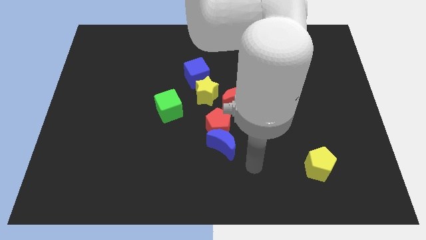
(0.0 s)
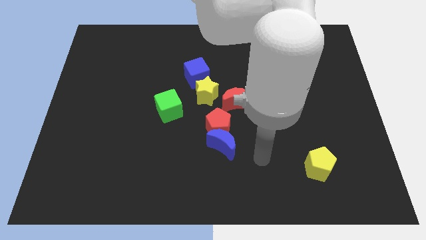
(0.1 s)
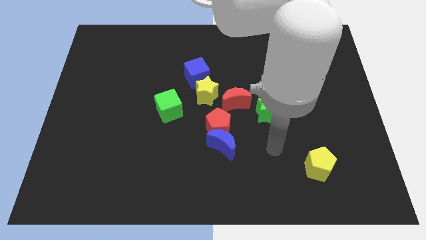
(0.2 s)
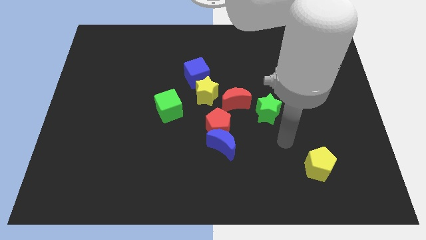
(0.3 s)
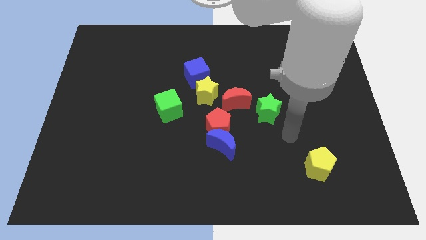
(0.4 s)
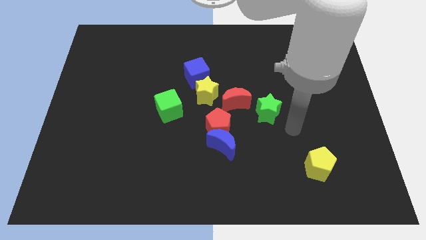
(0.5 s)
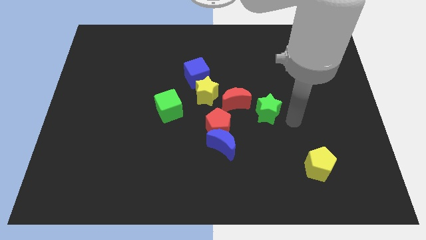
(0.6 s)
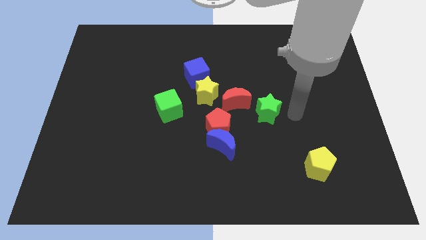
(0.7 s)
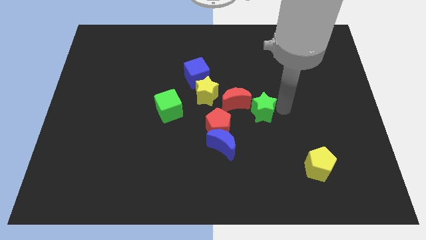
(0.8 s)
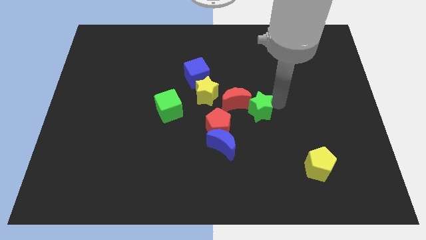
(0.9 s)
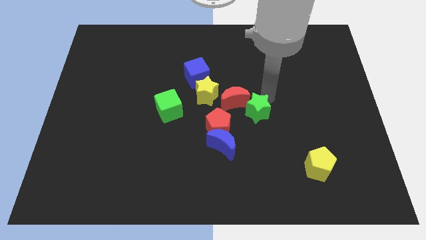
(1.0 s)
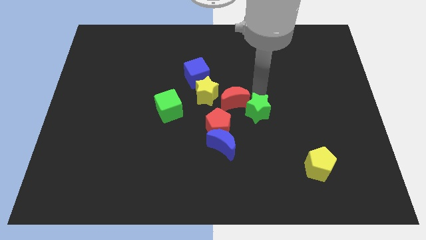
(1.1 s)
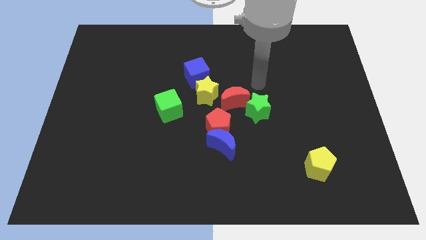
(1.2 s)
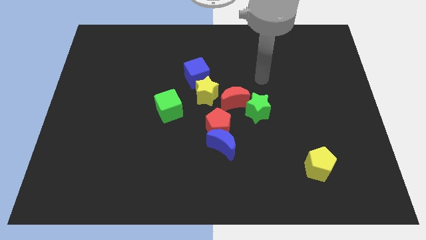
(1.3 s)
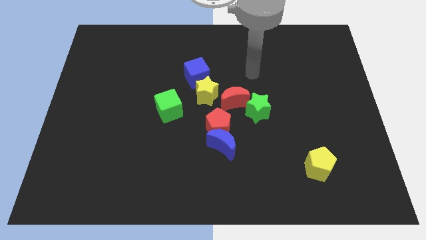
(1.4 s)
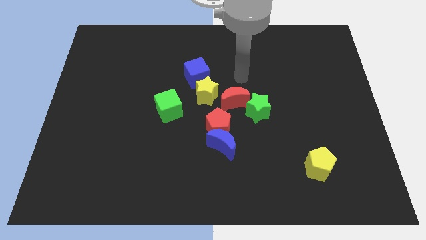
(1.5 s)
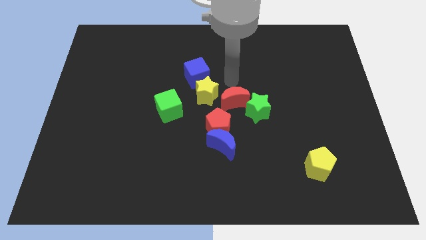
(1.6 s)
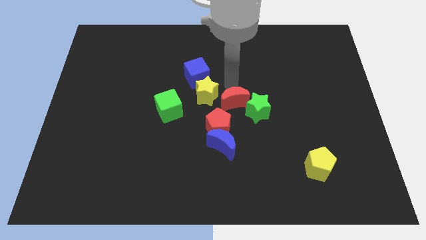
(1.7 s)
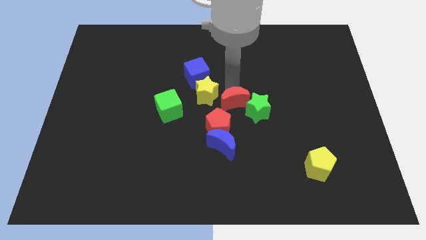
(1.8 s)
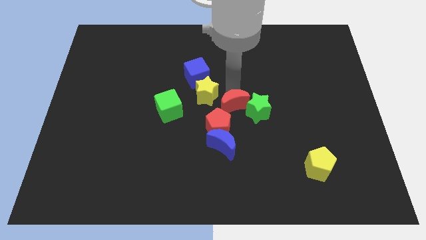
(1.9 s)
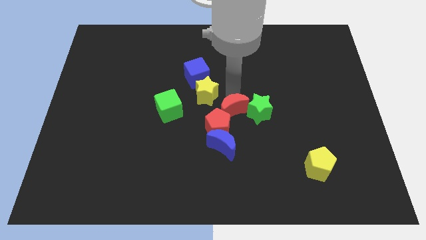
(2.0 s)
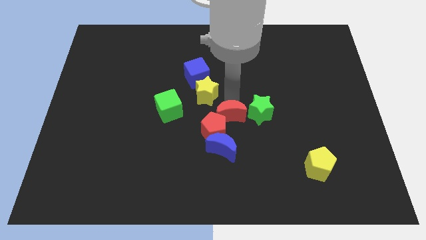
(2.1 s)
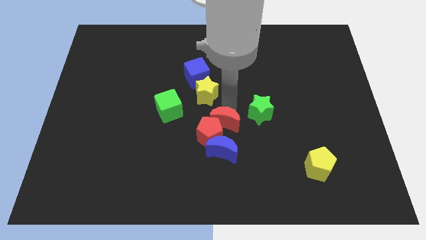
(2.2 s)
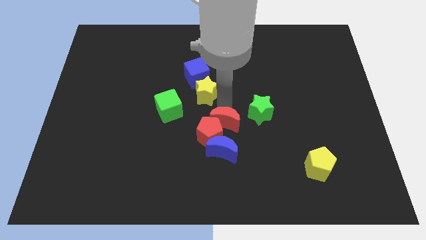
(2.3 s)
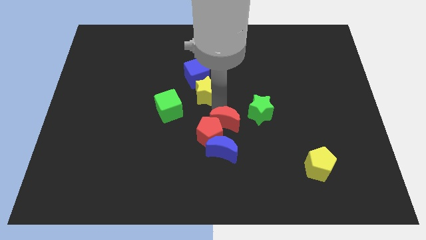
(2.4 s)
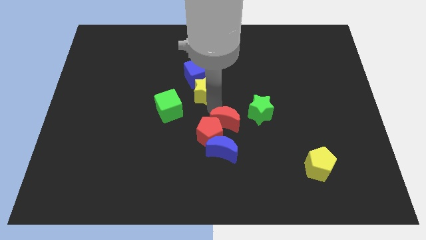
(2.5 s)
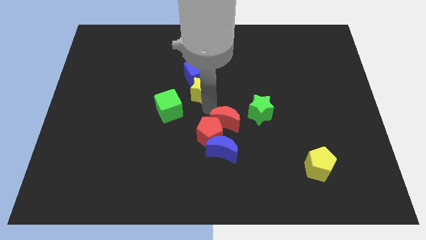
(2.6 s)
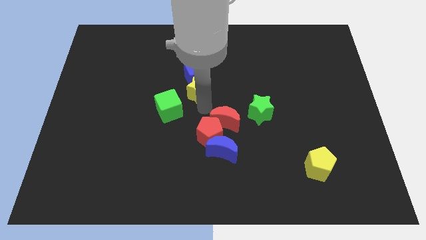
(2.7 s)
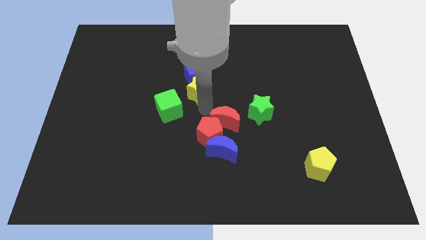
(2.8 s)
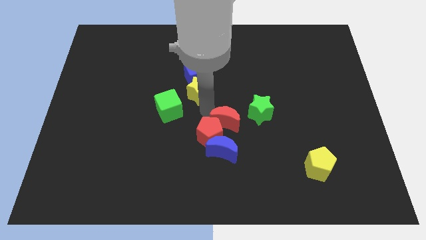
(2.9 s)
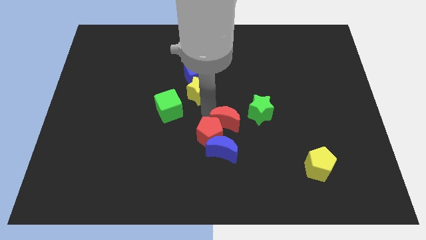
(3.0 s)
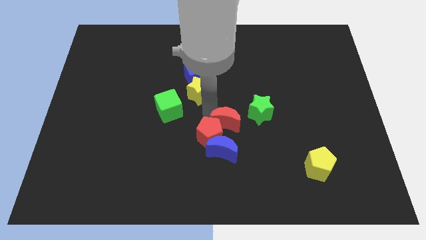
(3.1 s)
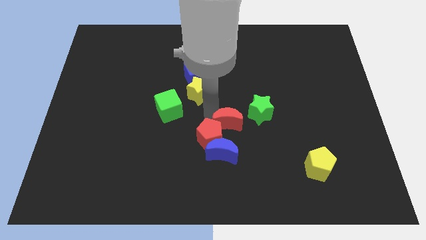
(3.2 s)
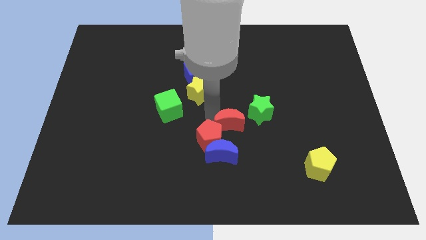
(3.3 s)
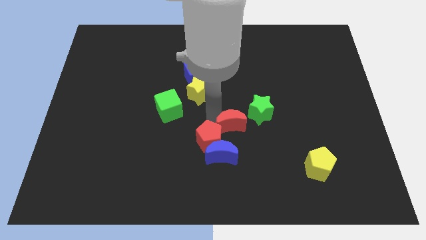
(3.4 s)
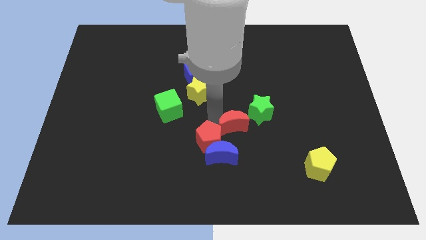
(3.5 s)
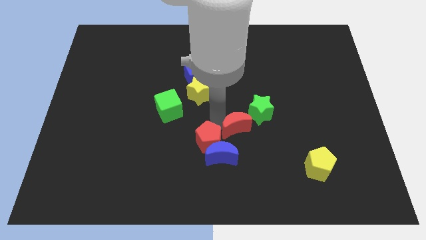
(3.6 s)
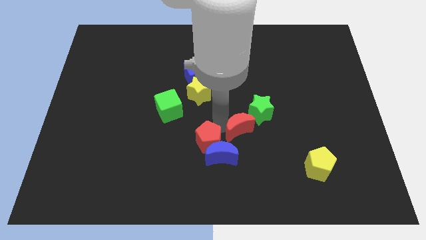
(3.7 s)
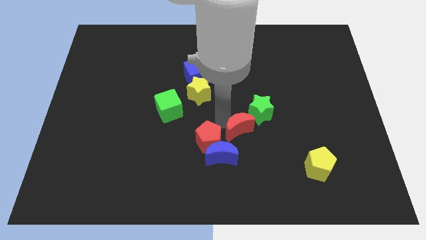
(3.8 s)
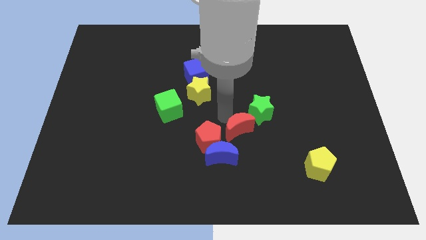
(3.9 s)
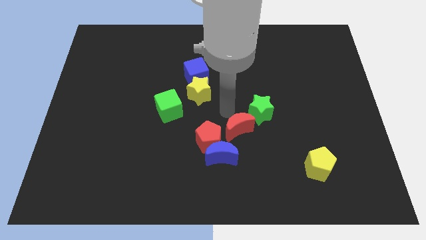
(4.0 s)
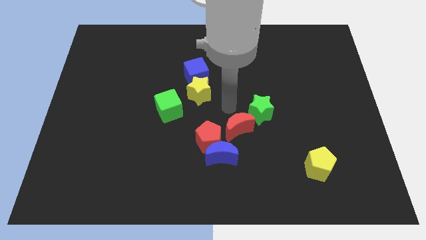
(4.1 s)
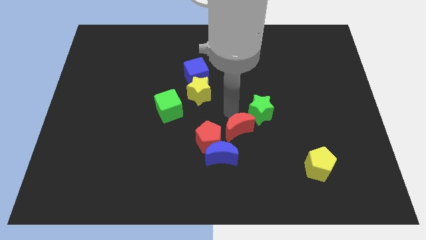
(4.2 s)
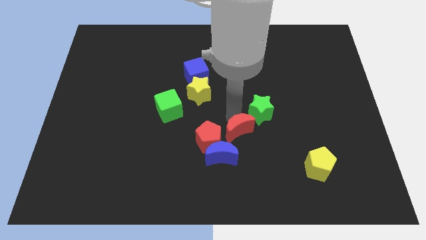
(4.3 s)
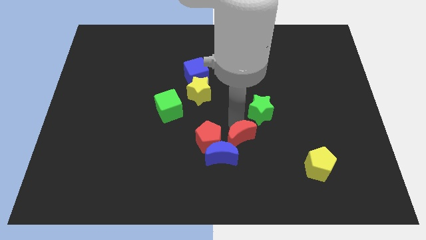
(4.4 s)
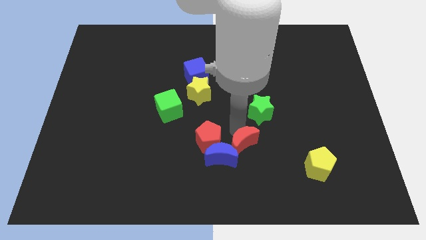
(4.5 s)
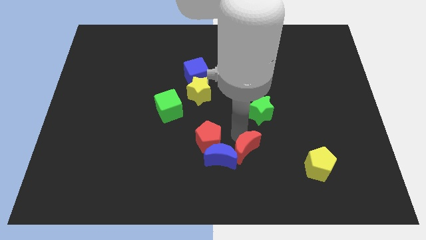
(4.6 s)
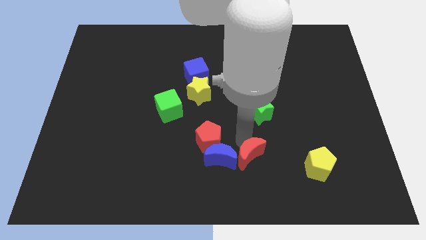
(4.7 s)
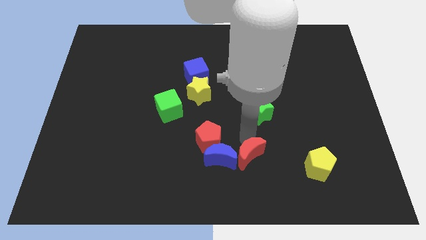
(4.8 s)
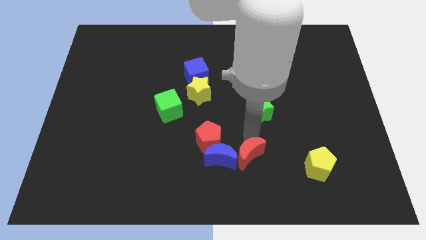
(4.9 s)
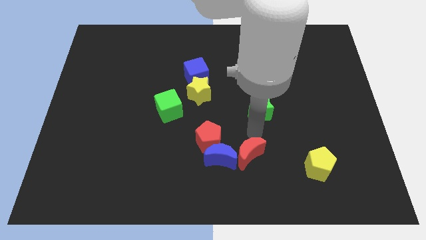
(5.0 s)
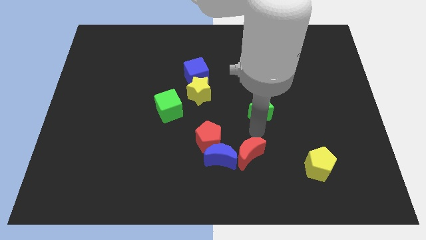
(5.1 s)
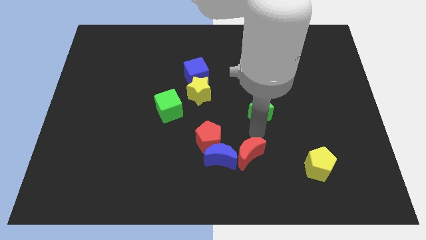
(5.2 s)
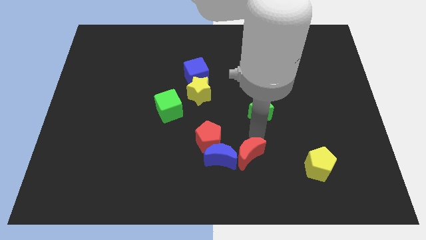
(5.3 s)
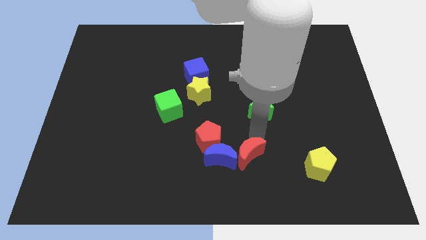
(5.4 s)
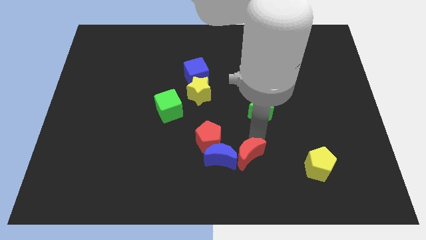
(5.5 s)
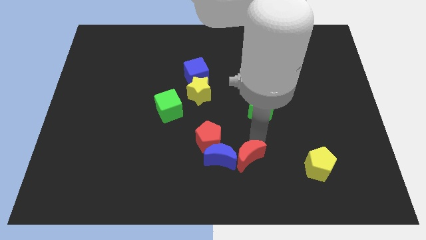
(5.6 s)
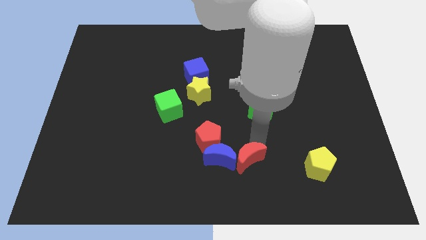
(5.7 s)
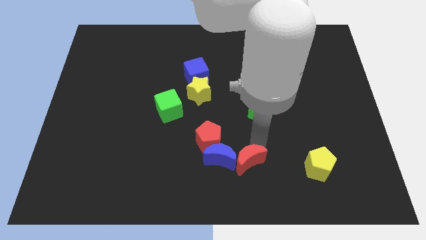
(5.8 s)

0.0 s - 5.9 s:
put the red moon to the bottom

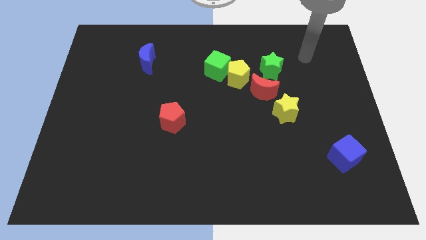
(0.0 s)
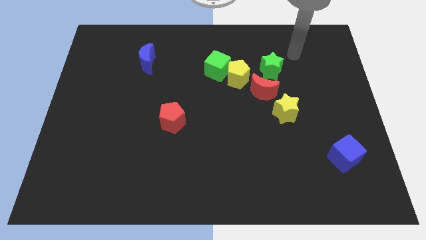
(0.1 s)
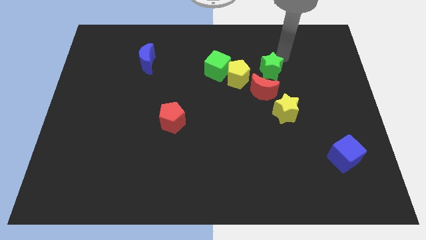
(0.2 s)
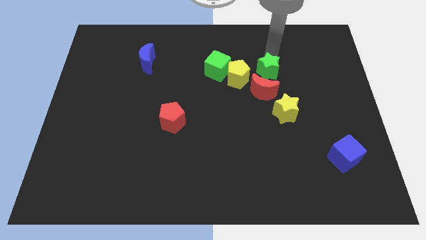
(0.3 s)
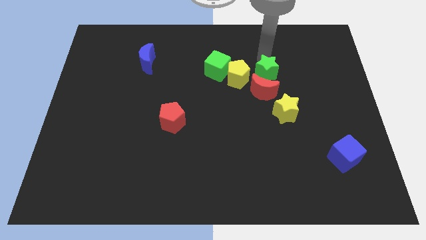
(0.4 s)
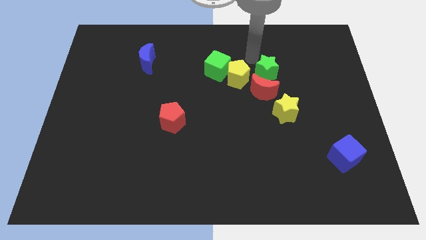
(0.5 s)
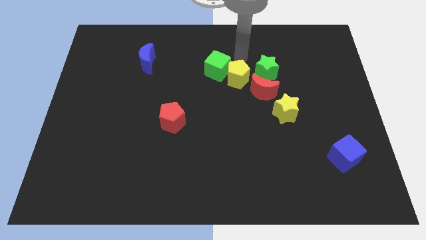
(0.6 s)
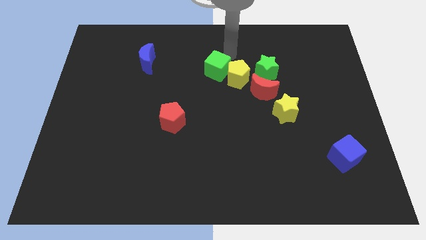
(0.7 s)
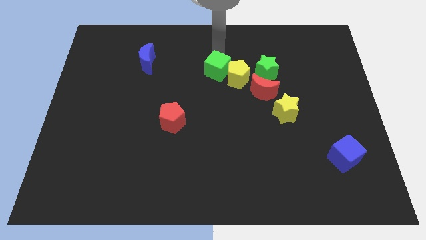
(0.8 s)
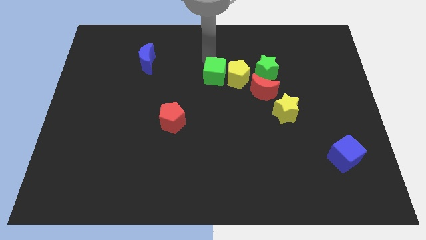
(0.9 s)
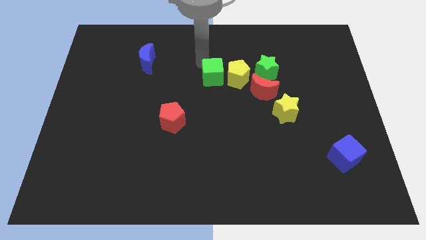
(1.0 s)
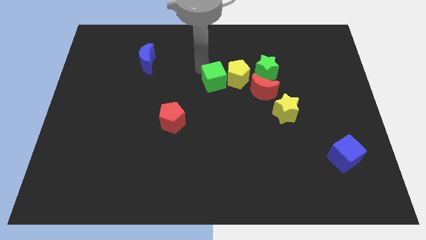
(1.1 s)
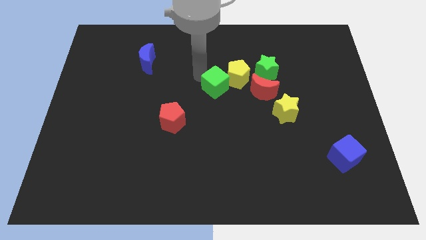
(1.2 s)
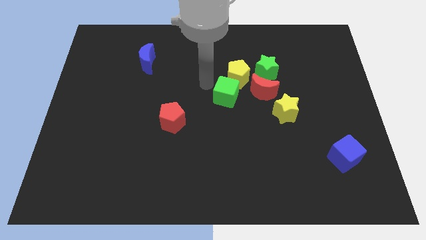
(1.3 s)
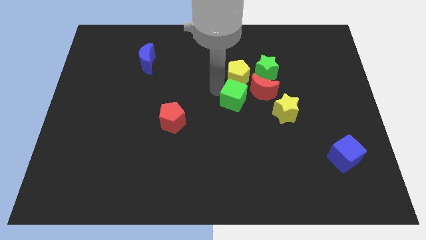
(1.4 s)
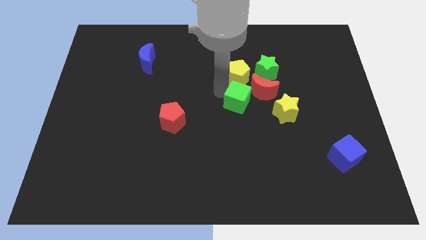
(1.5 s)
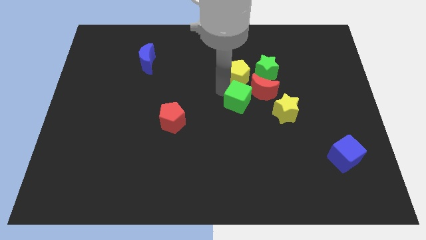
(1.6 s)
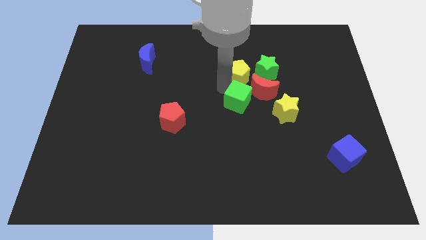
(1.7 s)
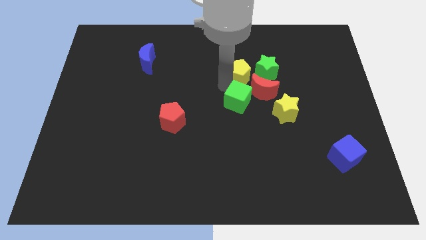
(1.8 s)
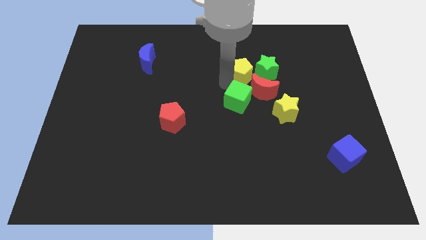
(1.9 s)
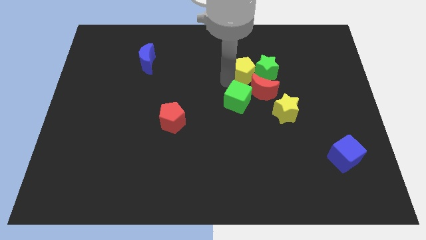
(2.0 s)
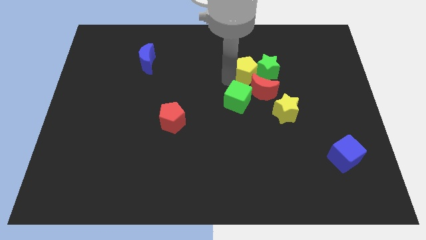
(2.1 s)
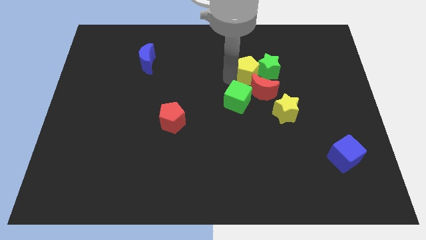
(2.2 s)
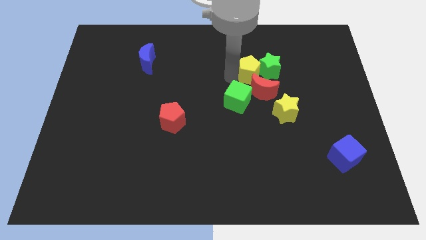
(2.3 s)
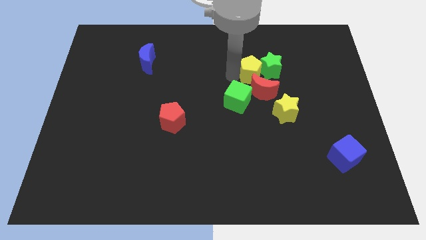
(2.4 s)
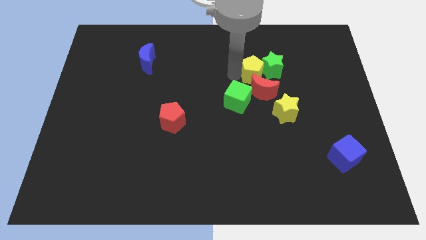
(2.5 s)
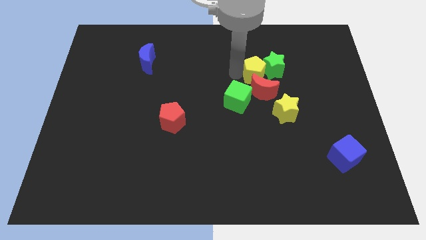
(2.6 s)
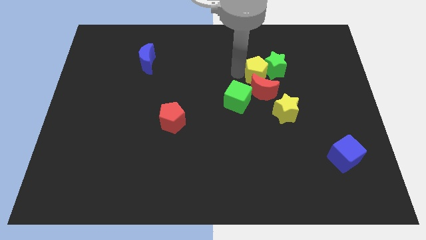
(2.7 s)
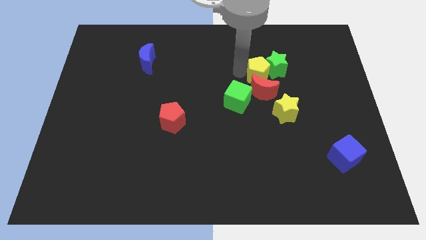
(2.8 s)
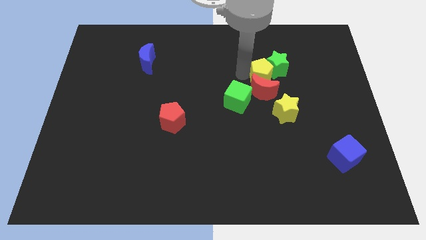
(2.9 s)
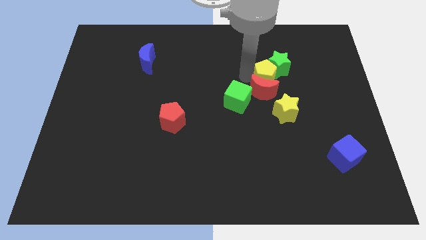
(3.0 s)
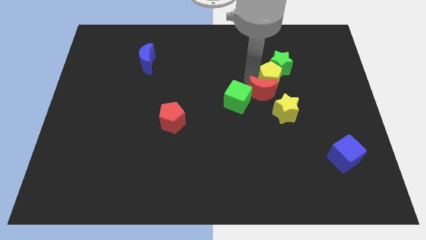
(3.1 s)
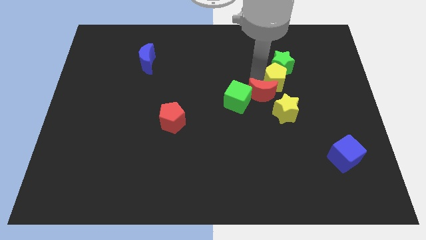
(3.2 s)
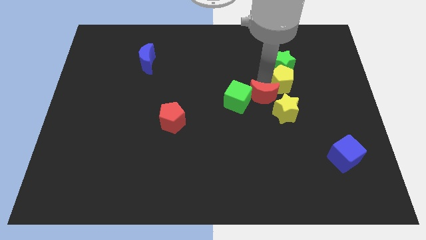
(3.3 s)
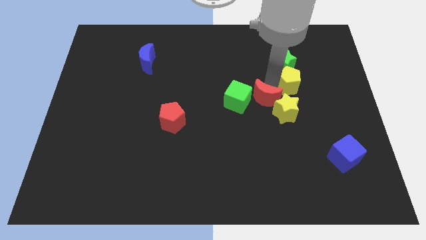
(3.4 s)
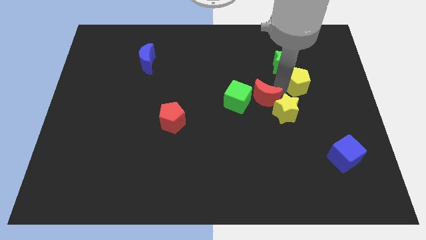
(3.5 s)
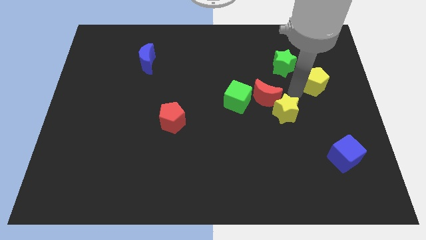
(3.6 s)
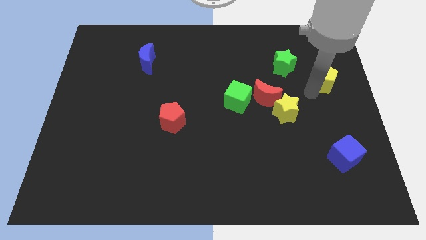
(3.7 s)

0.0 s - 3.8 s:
move the yellow pentagon to the right side of the board
